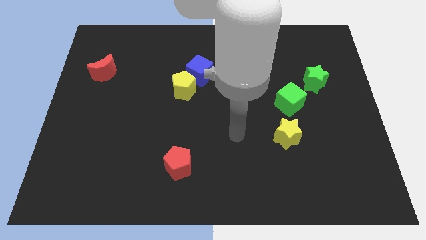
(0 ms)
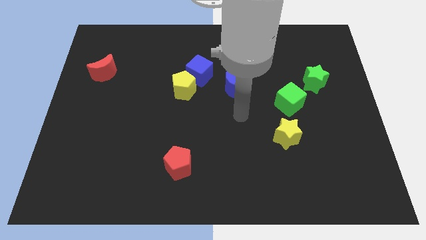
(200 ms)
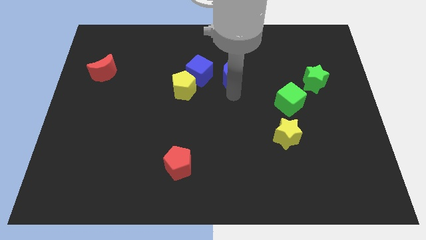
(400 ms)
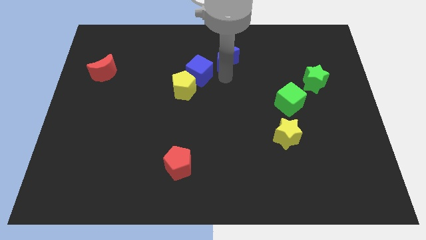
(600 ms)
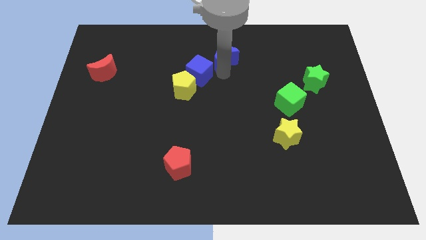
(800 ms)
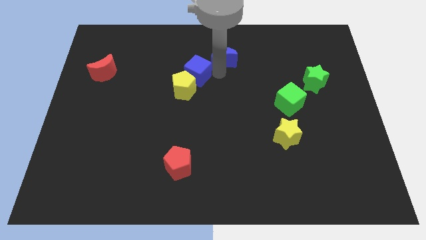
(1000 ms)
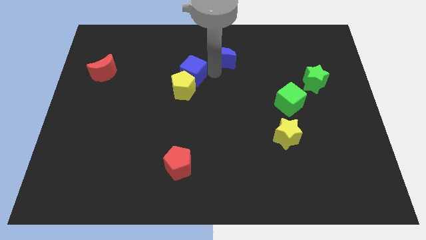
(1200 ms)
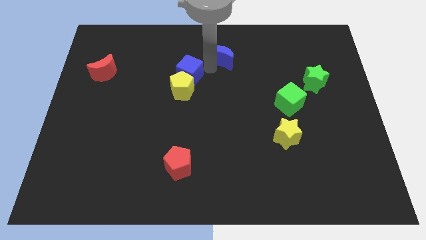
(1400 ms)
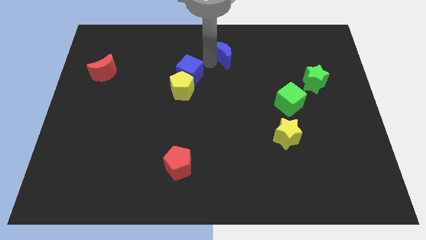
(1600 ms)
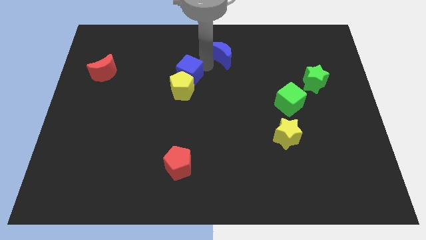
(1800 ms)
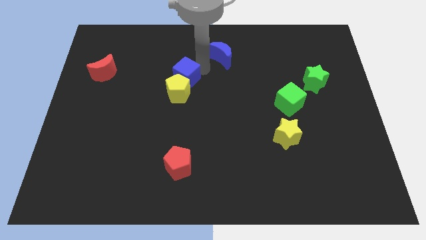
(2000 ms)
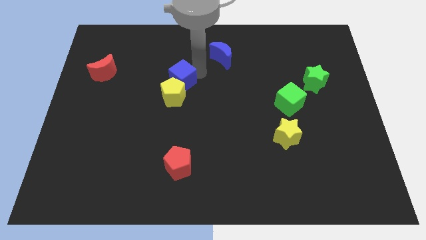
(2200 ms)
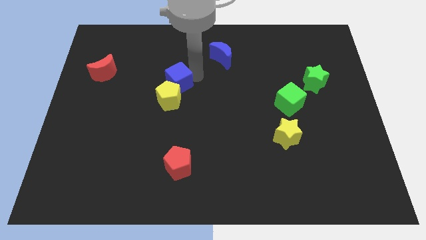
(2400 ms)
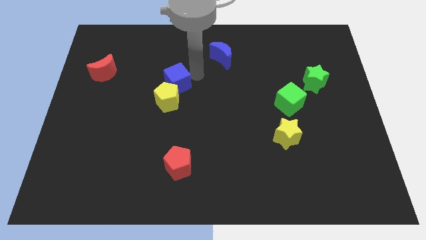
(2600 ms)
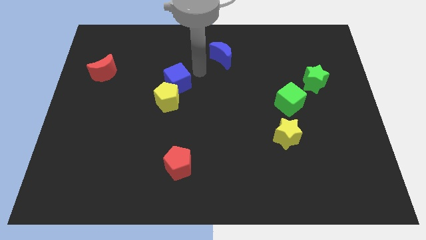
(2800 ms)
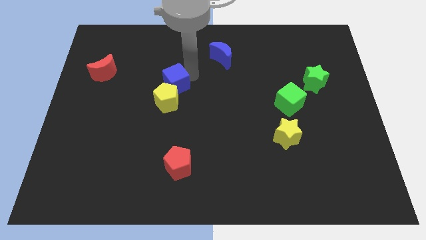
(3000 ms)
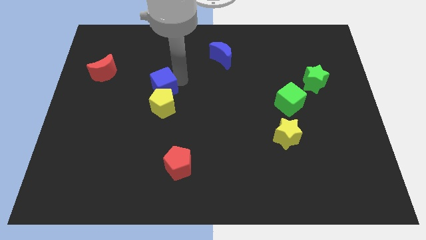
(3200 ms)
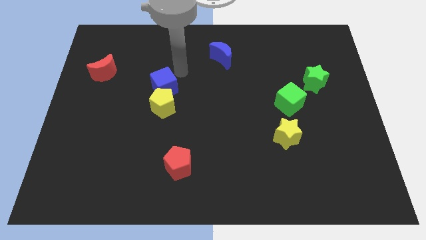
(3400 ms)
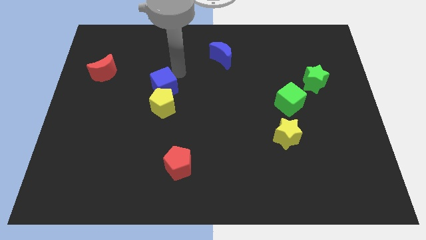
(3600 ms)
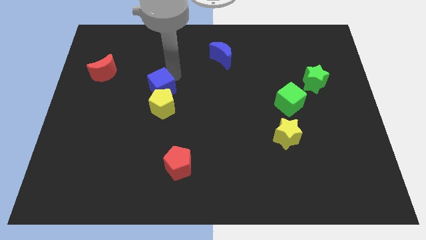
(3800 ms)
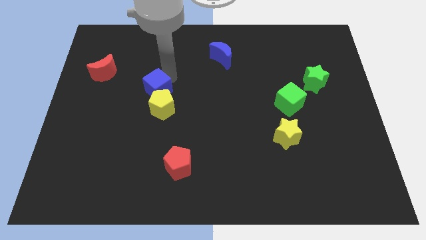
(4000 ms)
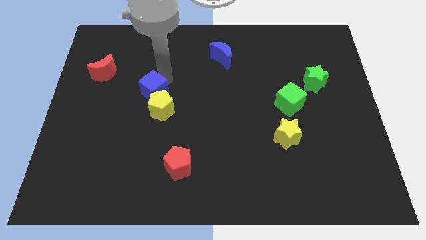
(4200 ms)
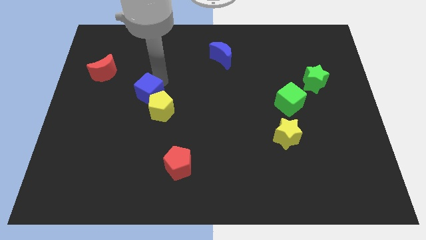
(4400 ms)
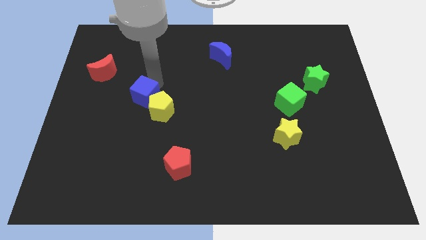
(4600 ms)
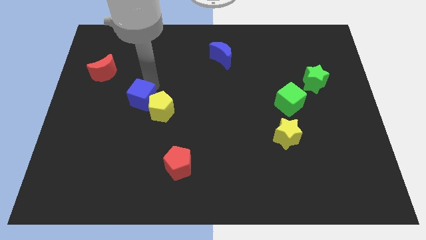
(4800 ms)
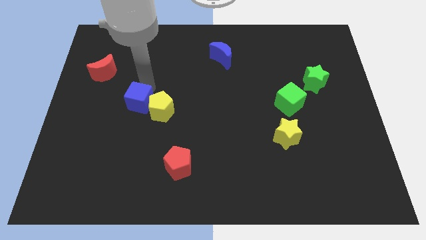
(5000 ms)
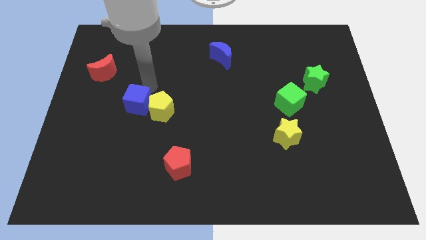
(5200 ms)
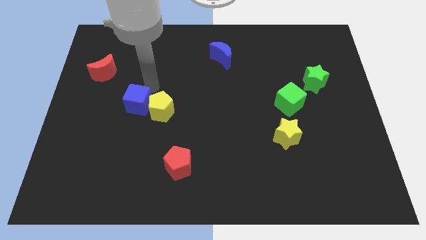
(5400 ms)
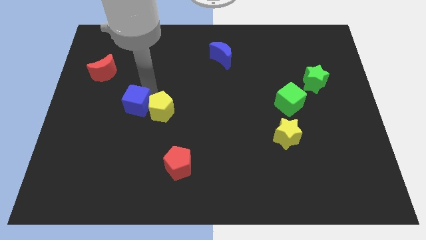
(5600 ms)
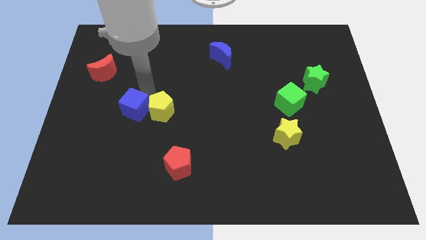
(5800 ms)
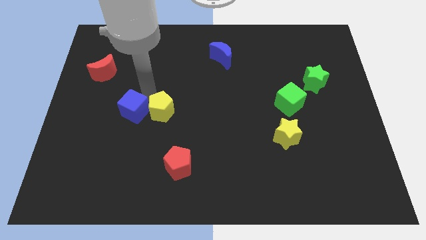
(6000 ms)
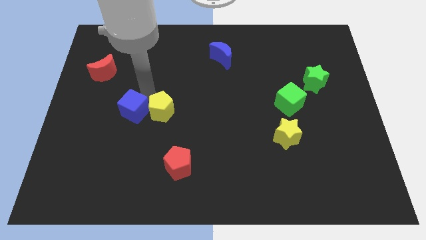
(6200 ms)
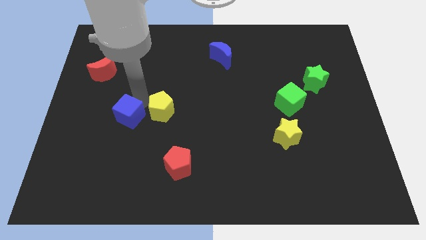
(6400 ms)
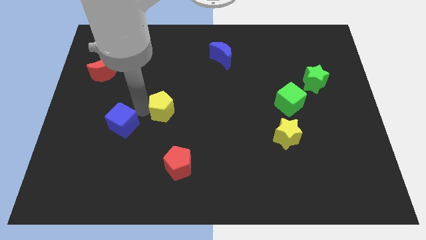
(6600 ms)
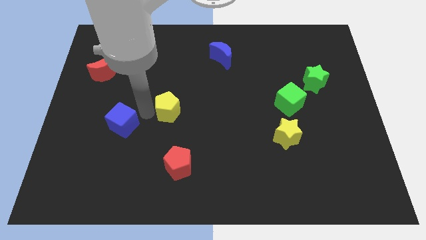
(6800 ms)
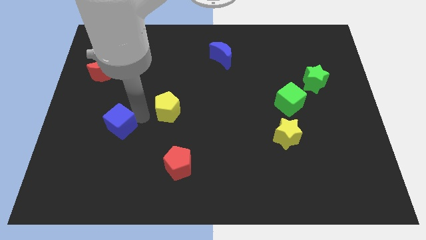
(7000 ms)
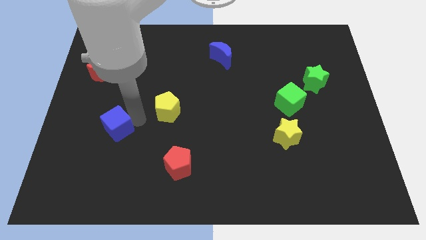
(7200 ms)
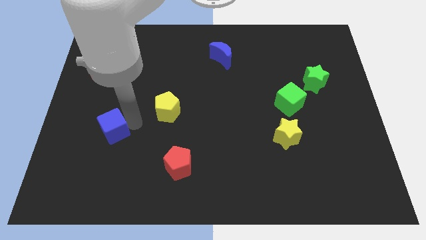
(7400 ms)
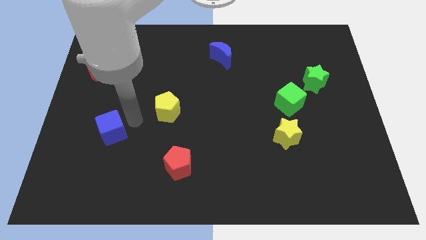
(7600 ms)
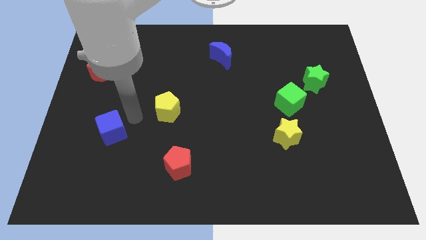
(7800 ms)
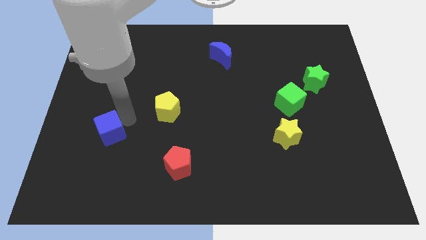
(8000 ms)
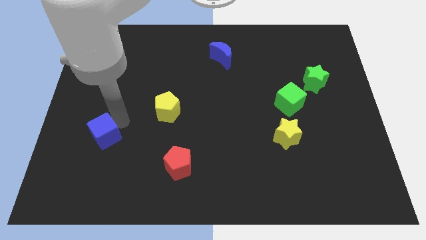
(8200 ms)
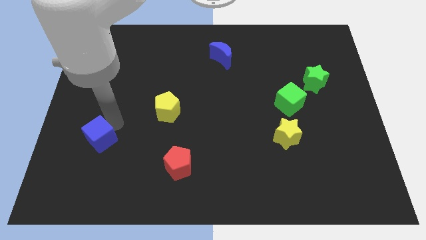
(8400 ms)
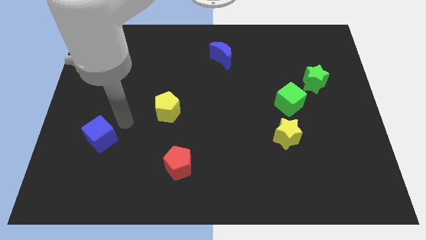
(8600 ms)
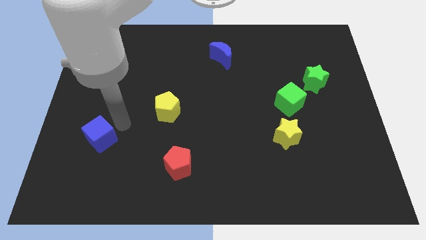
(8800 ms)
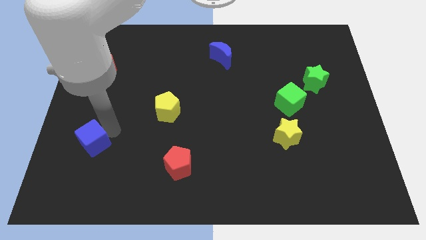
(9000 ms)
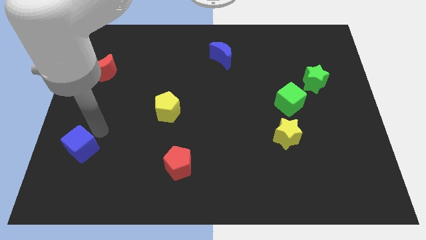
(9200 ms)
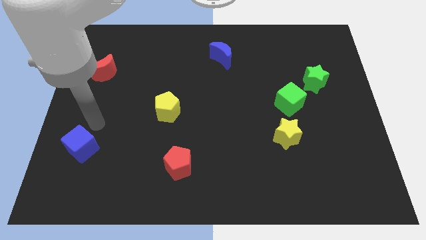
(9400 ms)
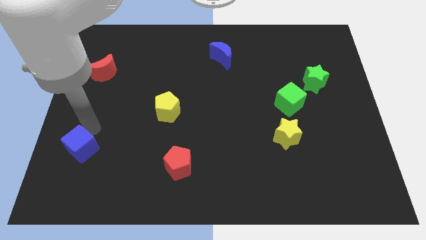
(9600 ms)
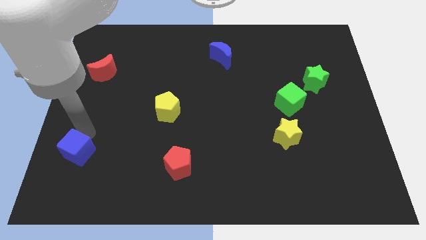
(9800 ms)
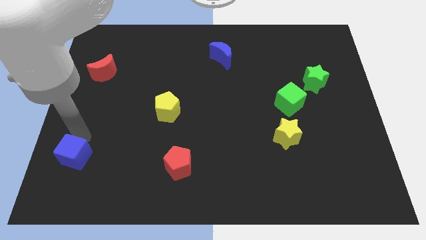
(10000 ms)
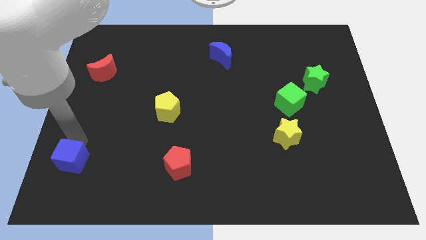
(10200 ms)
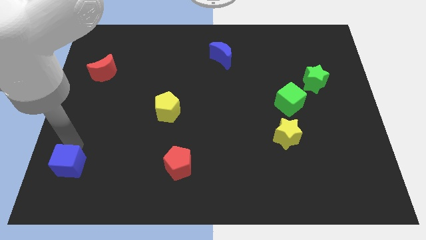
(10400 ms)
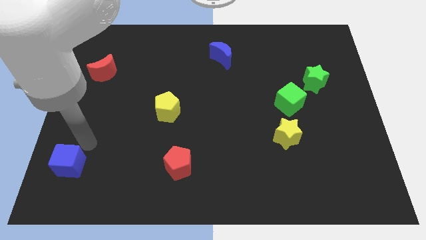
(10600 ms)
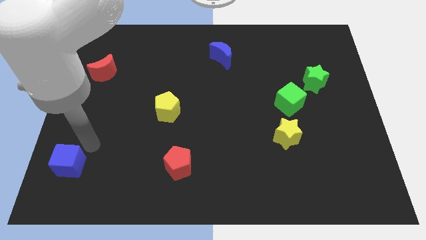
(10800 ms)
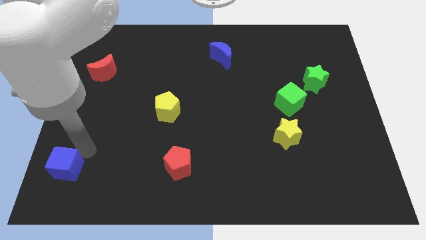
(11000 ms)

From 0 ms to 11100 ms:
push the blue cube to the bottom left of the board

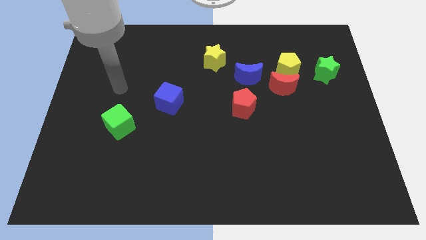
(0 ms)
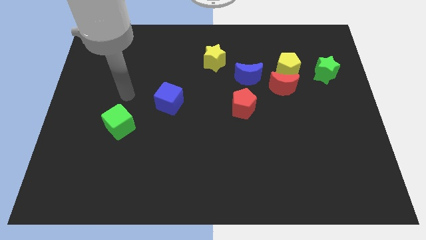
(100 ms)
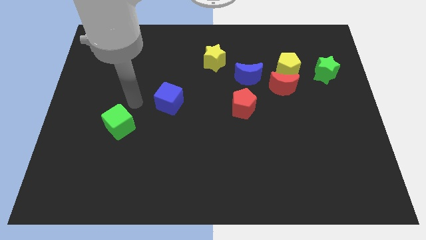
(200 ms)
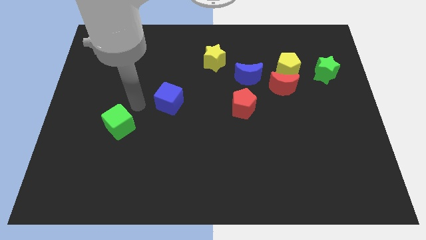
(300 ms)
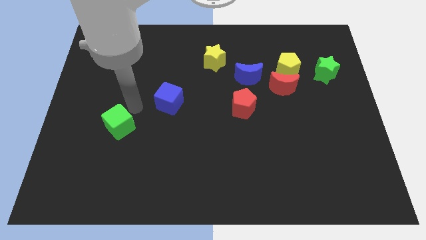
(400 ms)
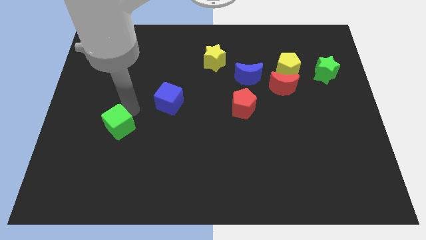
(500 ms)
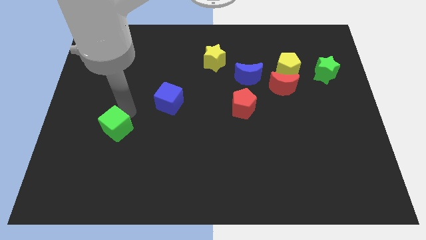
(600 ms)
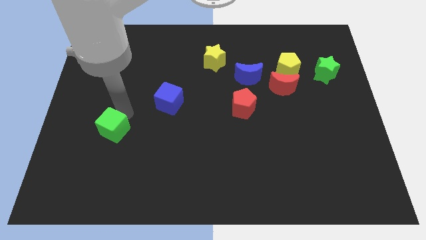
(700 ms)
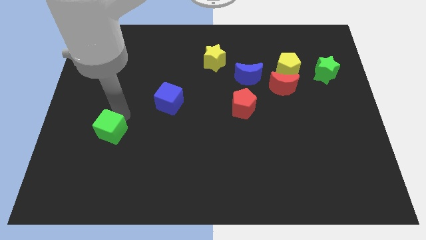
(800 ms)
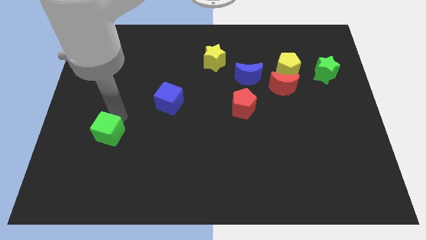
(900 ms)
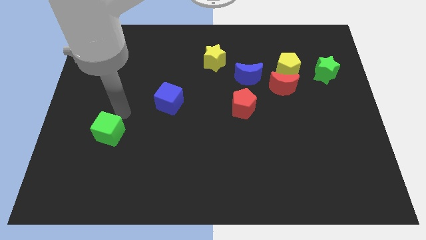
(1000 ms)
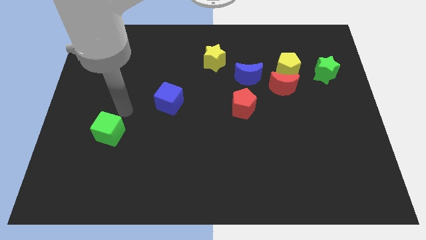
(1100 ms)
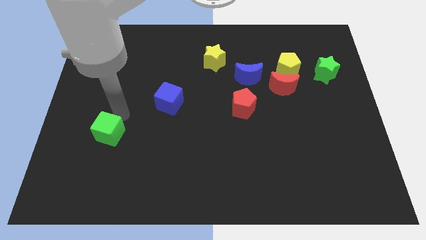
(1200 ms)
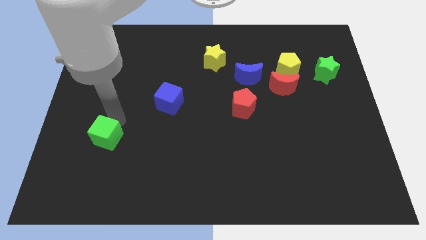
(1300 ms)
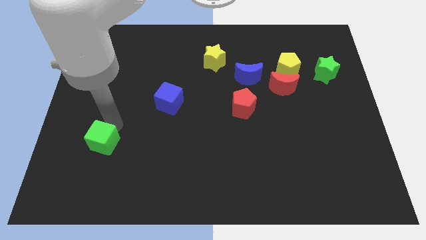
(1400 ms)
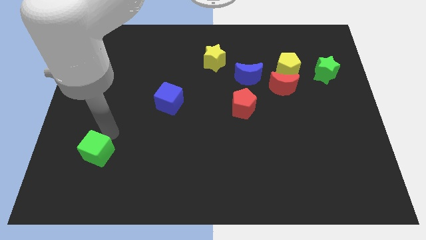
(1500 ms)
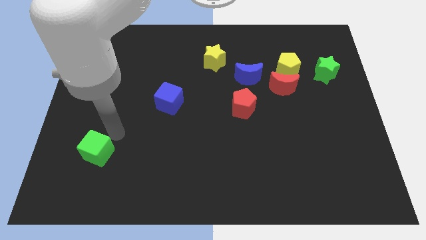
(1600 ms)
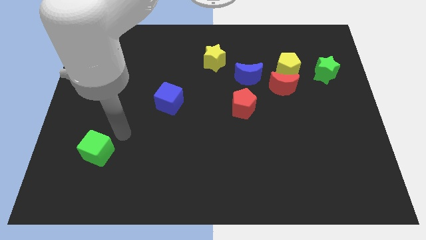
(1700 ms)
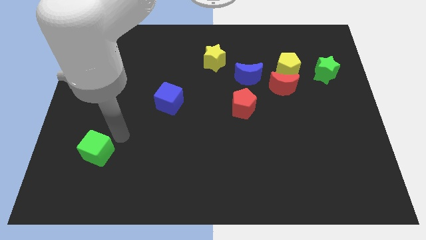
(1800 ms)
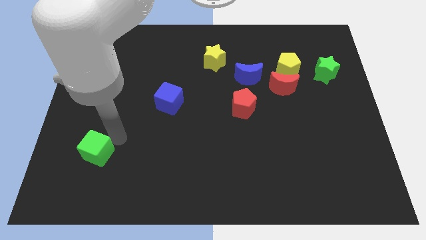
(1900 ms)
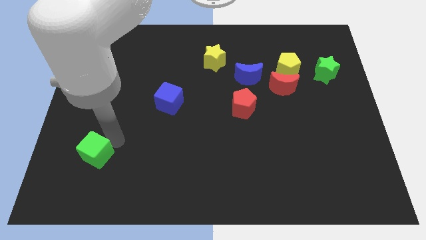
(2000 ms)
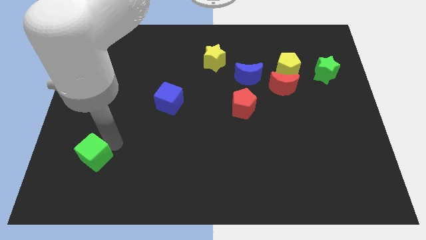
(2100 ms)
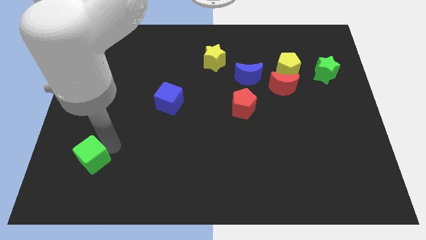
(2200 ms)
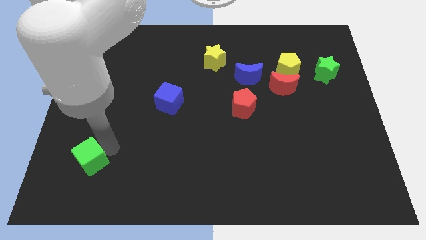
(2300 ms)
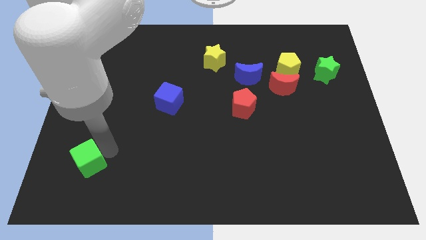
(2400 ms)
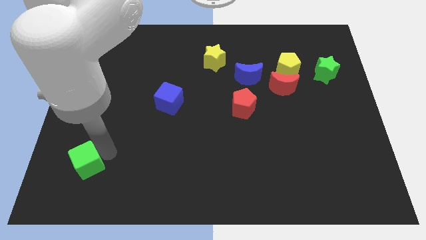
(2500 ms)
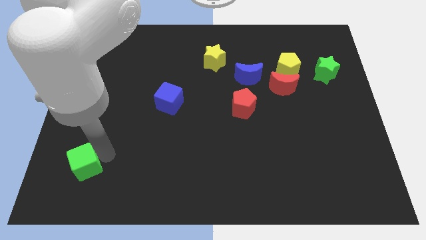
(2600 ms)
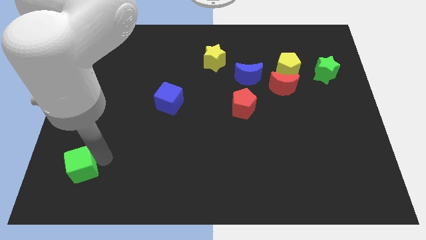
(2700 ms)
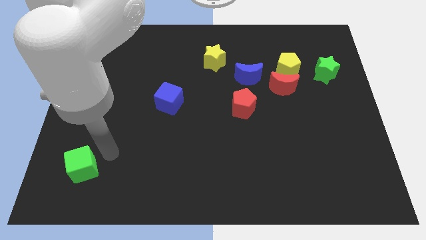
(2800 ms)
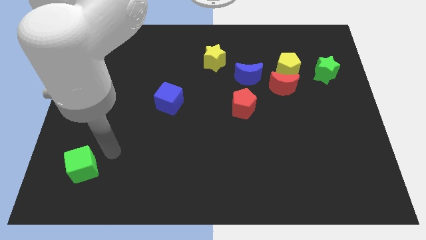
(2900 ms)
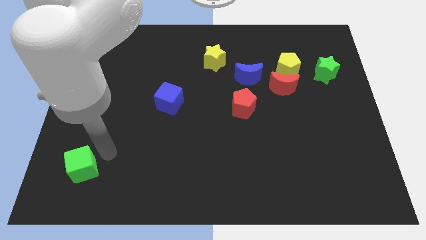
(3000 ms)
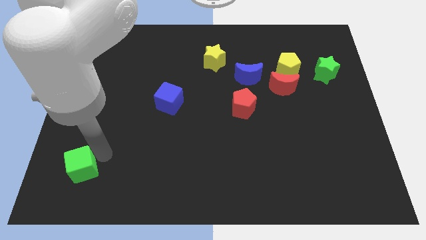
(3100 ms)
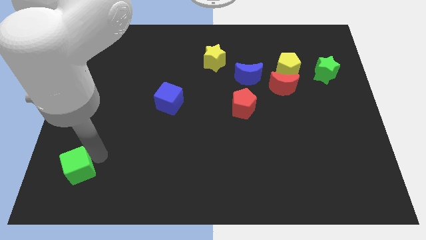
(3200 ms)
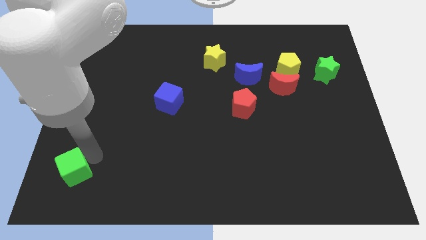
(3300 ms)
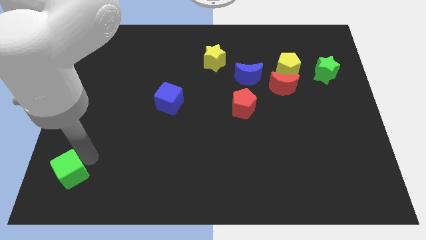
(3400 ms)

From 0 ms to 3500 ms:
slide the green cube to the lower left corner
